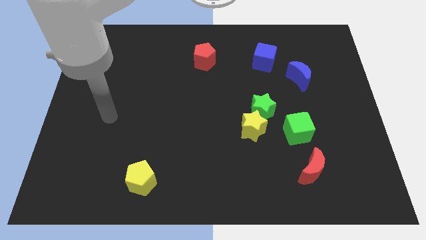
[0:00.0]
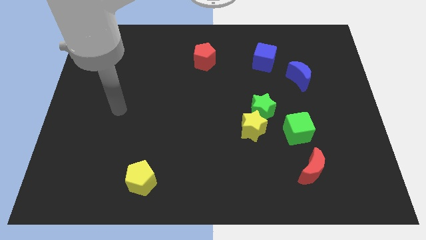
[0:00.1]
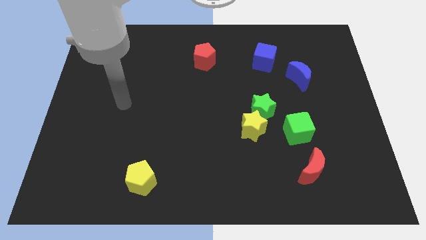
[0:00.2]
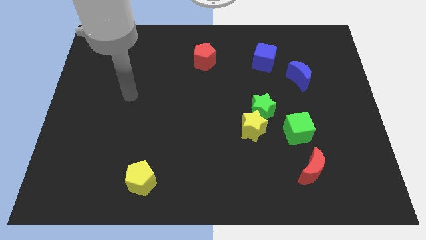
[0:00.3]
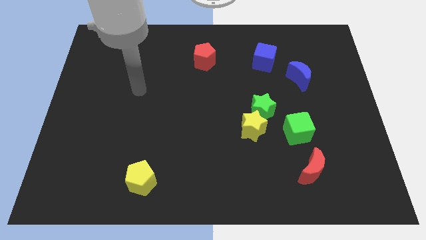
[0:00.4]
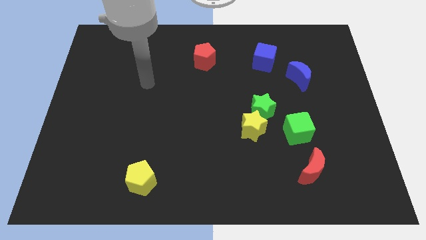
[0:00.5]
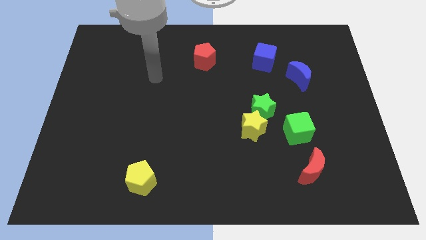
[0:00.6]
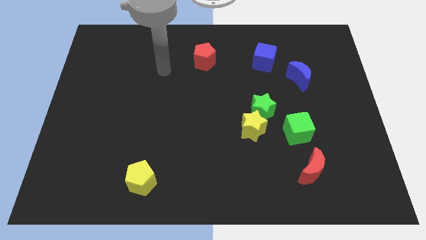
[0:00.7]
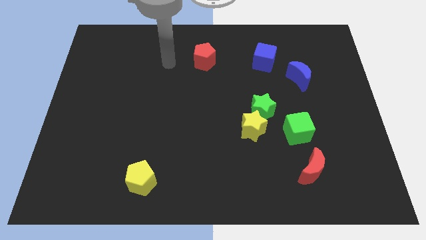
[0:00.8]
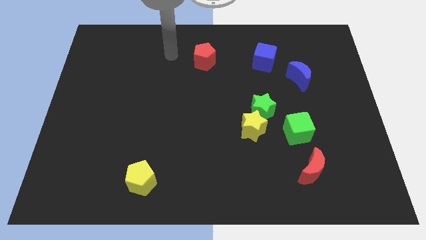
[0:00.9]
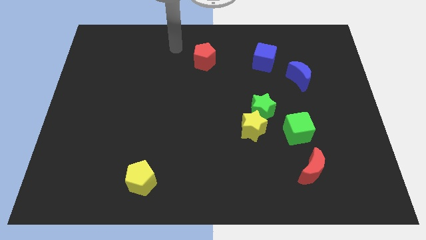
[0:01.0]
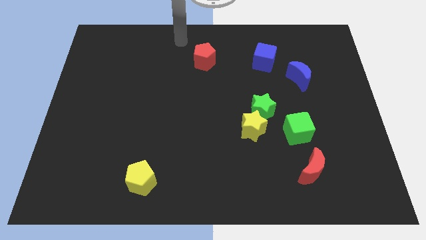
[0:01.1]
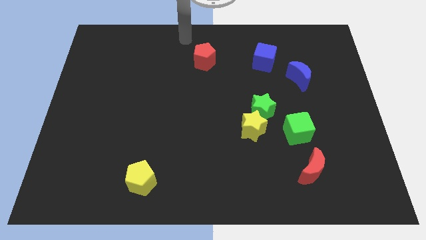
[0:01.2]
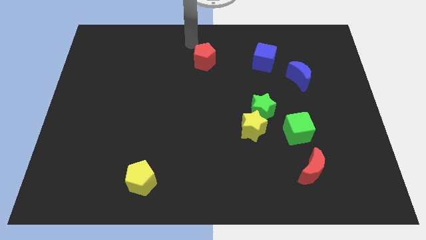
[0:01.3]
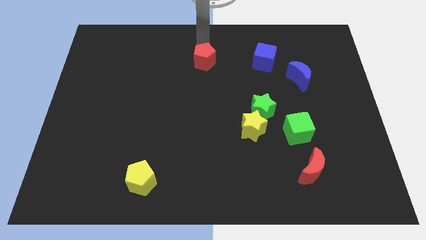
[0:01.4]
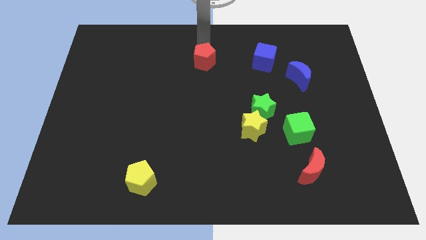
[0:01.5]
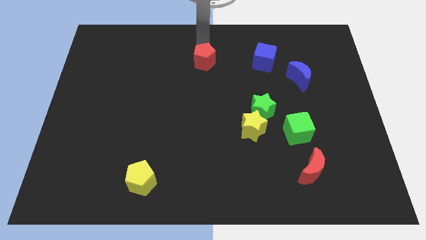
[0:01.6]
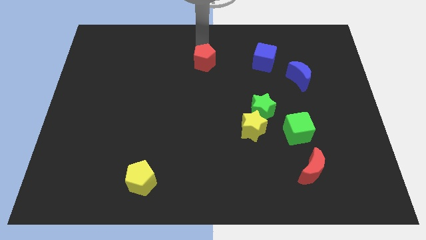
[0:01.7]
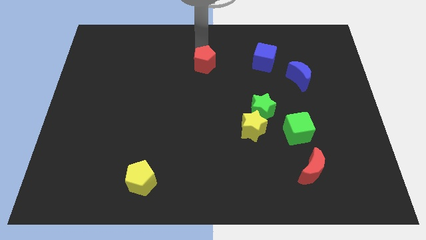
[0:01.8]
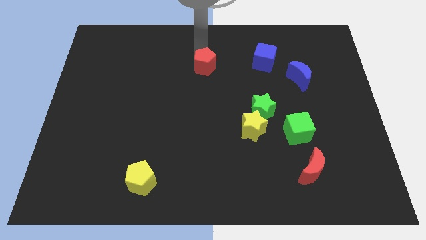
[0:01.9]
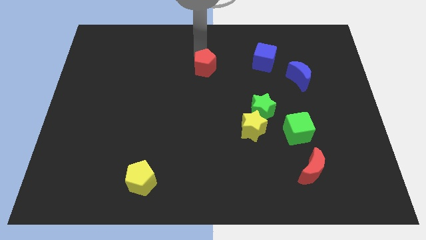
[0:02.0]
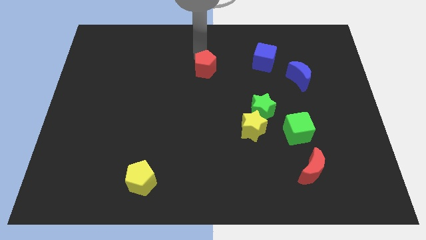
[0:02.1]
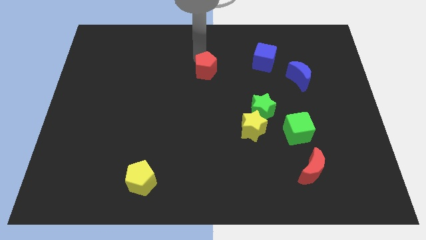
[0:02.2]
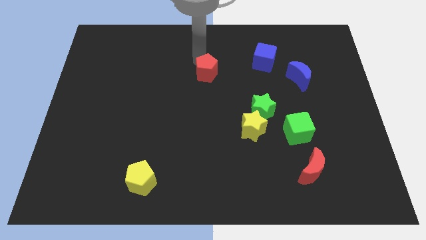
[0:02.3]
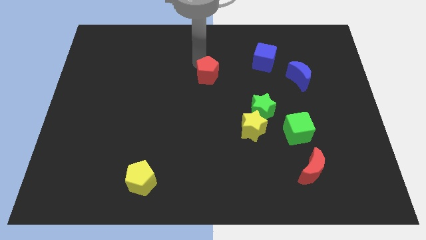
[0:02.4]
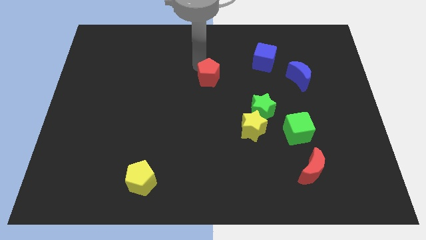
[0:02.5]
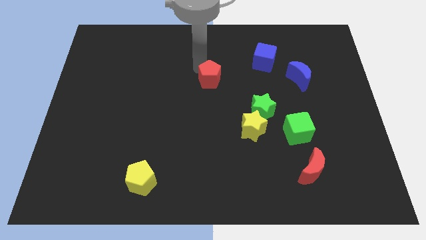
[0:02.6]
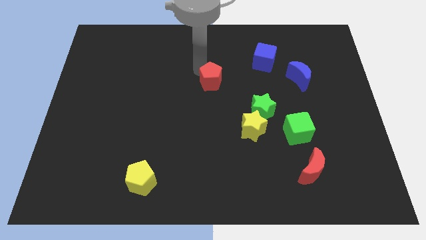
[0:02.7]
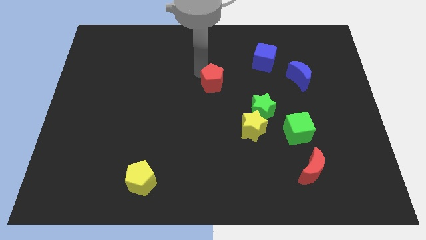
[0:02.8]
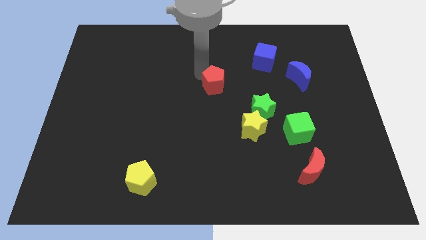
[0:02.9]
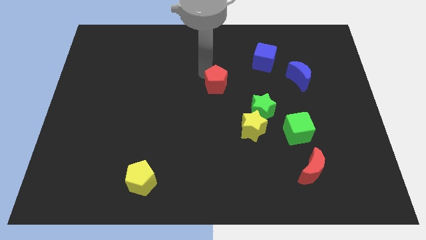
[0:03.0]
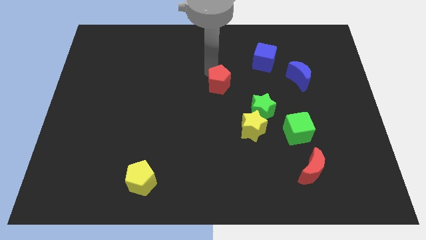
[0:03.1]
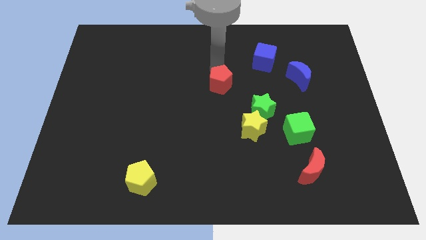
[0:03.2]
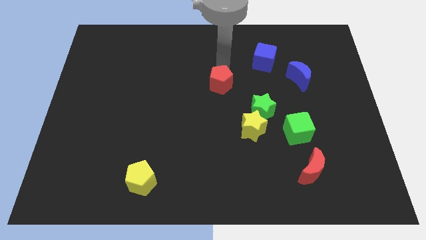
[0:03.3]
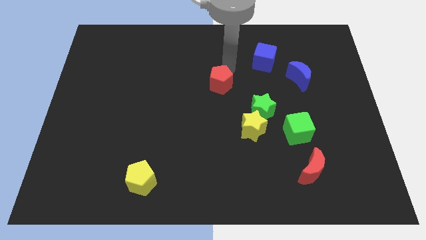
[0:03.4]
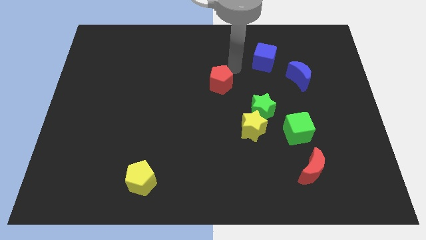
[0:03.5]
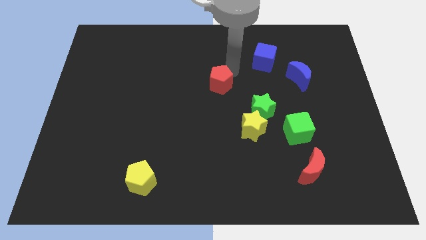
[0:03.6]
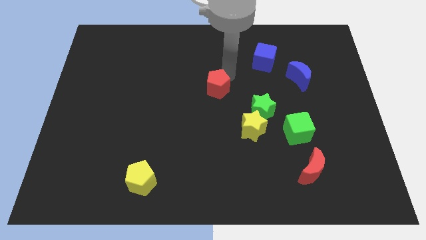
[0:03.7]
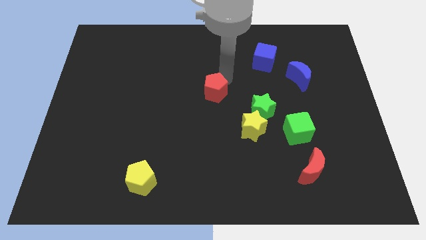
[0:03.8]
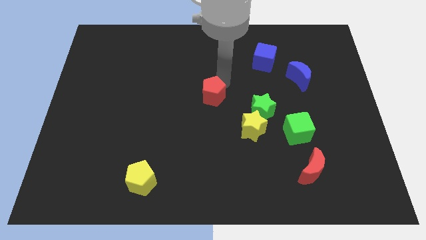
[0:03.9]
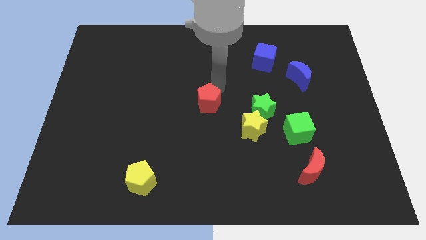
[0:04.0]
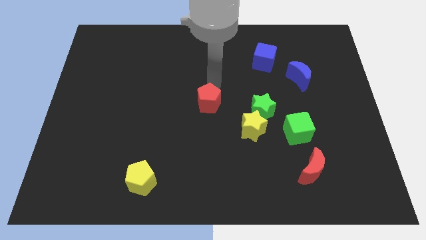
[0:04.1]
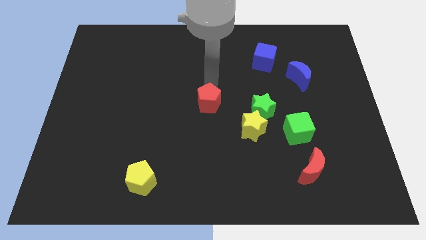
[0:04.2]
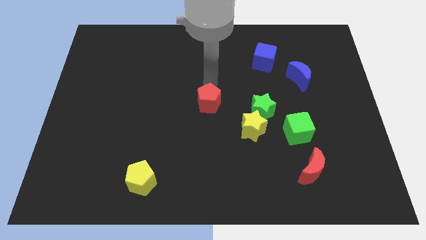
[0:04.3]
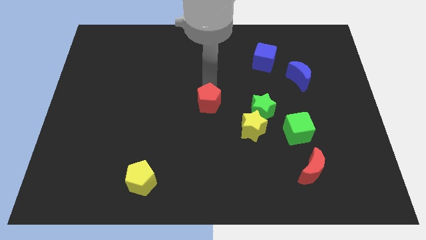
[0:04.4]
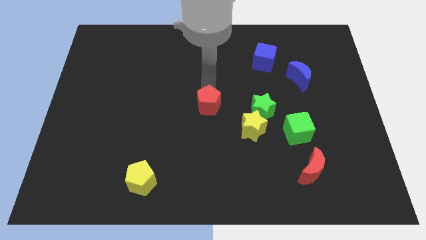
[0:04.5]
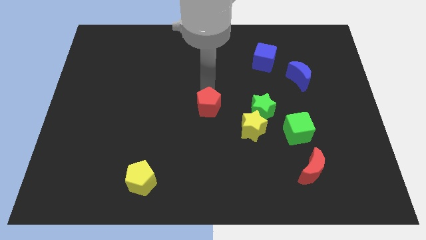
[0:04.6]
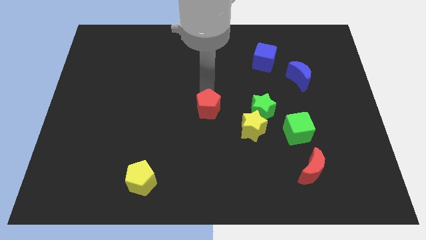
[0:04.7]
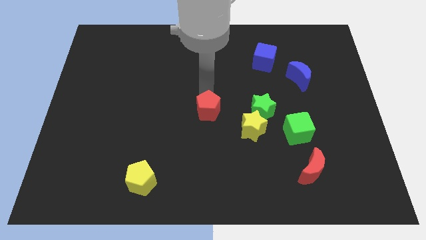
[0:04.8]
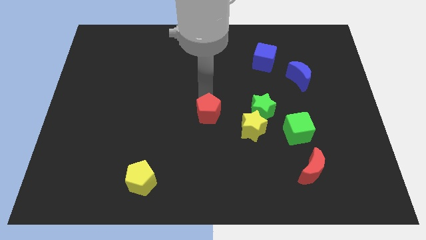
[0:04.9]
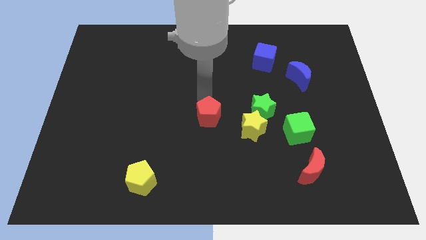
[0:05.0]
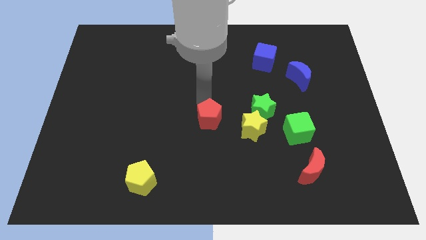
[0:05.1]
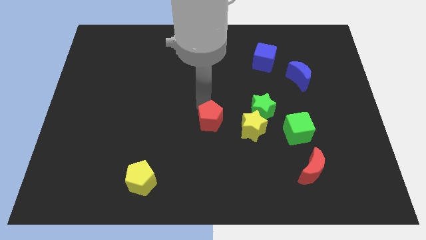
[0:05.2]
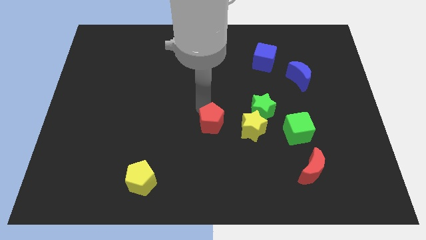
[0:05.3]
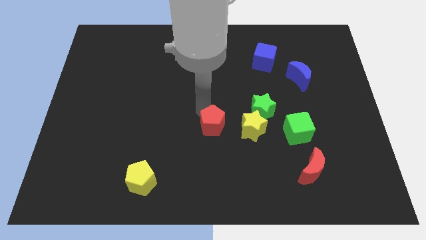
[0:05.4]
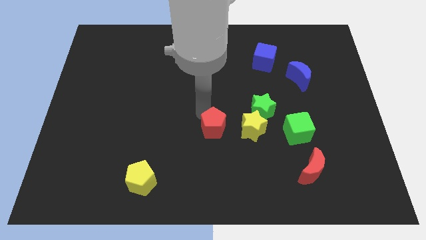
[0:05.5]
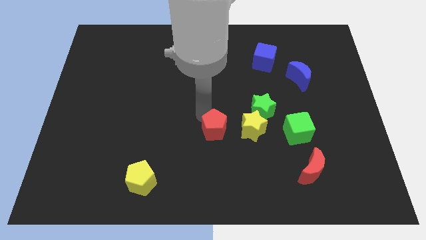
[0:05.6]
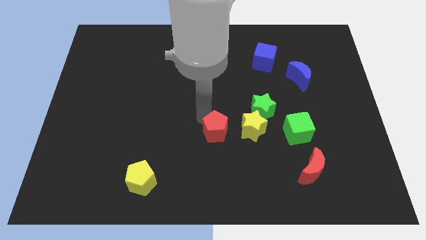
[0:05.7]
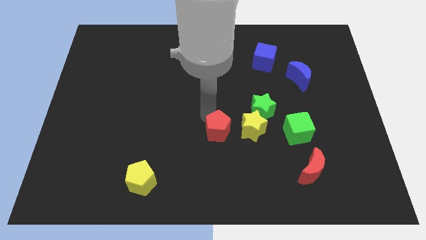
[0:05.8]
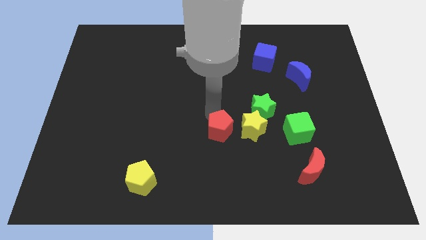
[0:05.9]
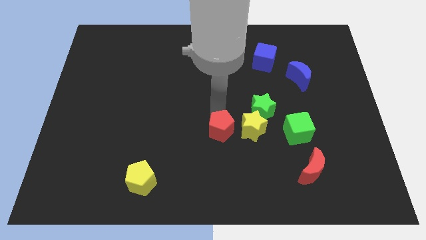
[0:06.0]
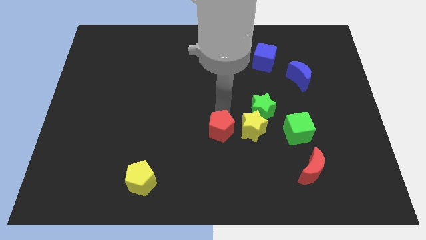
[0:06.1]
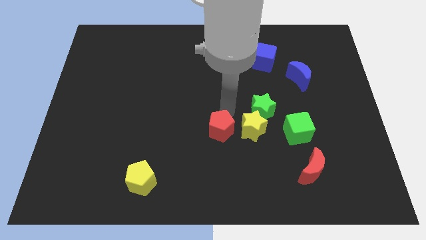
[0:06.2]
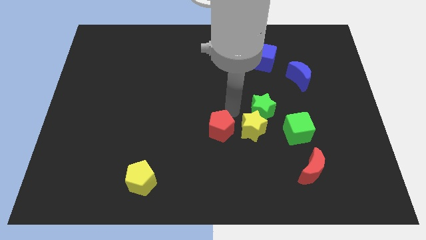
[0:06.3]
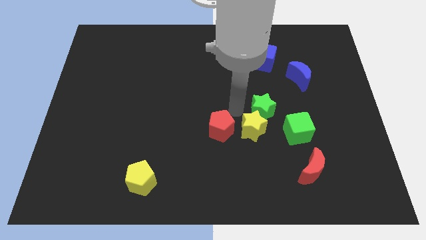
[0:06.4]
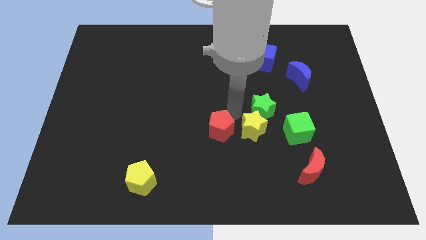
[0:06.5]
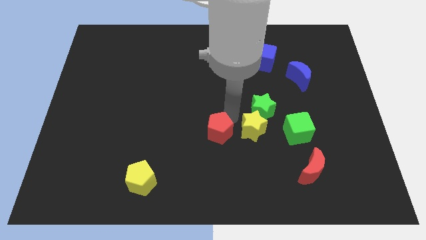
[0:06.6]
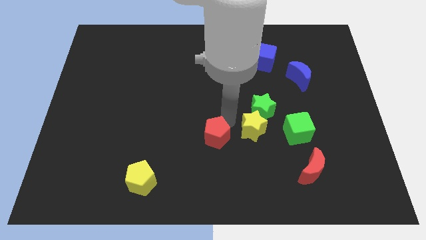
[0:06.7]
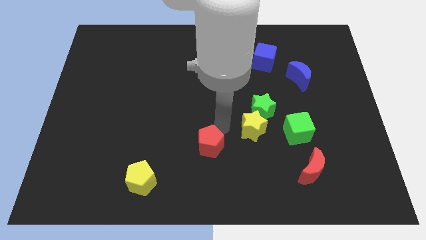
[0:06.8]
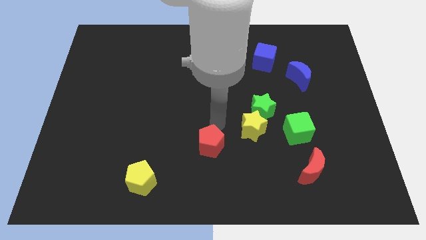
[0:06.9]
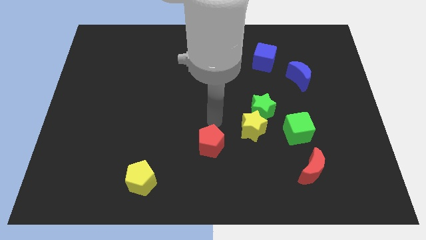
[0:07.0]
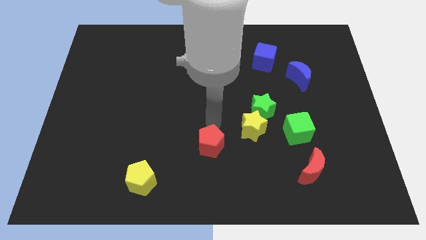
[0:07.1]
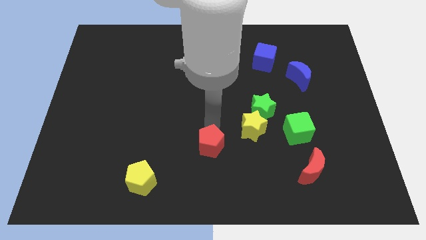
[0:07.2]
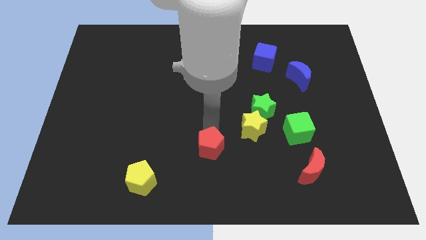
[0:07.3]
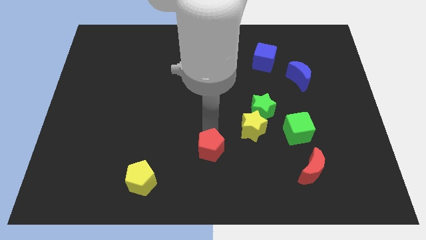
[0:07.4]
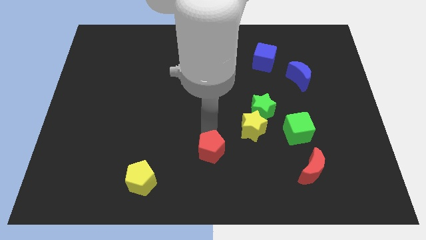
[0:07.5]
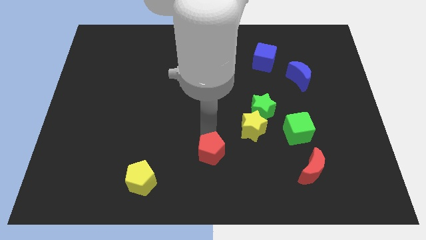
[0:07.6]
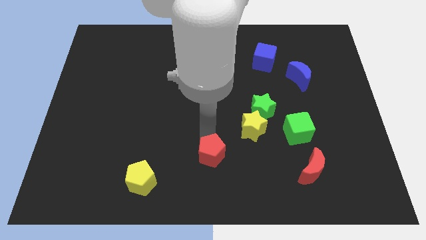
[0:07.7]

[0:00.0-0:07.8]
put the red pentagon to the bottom
